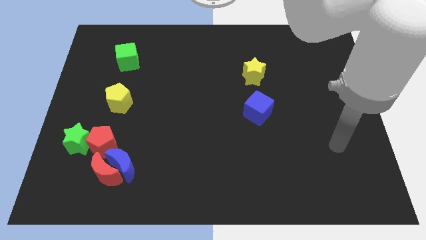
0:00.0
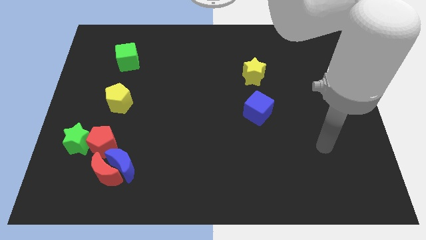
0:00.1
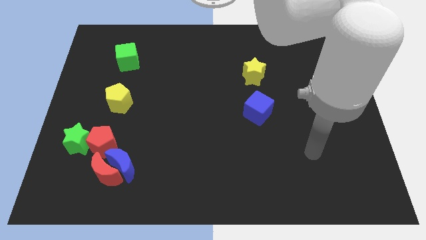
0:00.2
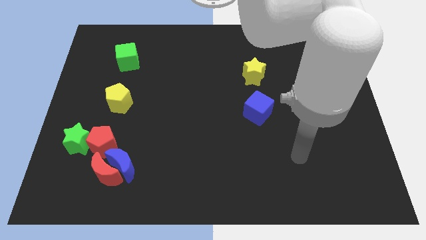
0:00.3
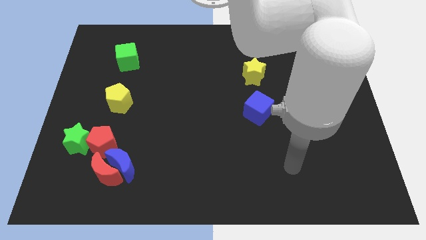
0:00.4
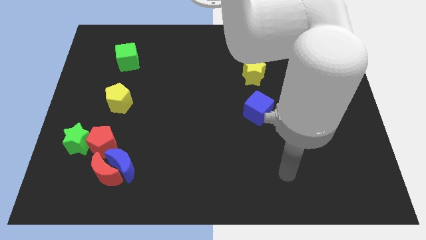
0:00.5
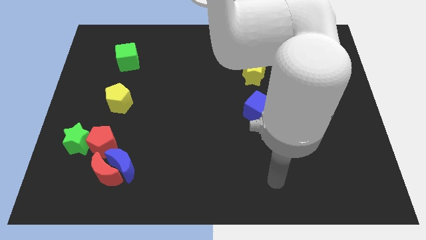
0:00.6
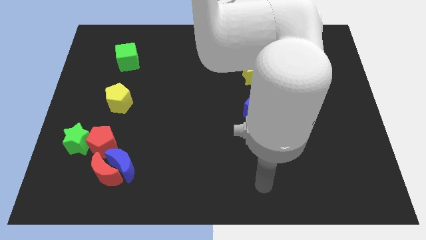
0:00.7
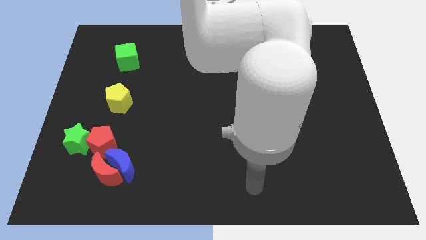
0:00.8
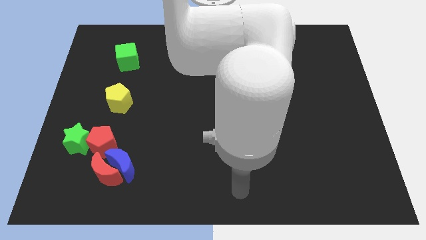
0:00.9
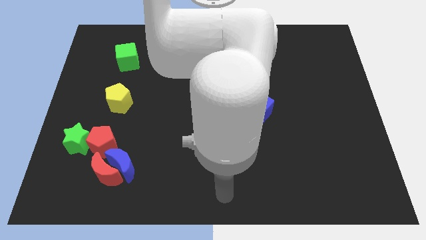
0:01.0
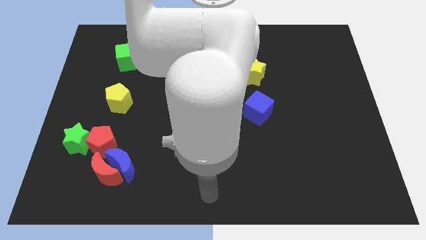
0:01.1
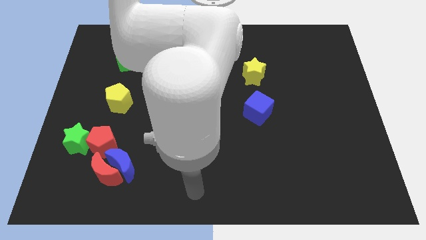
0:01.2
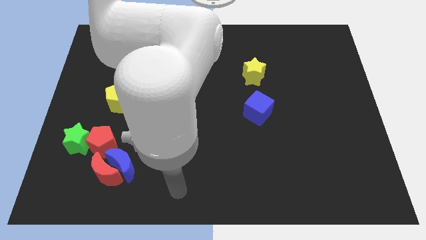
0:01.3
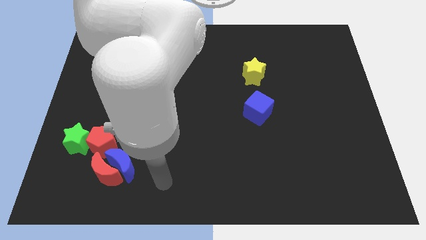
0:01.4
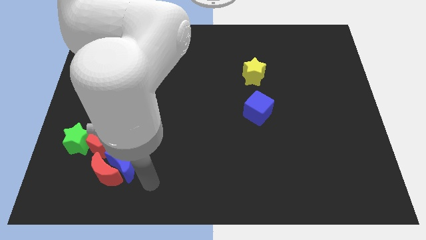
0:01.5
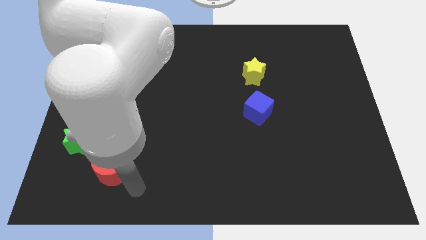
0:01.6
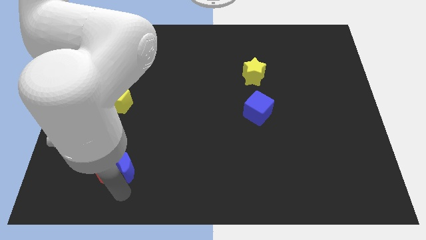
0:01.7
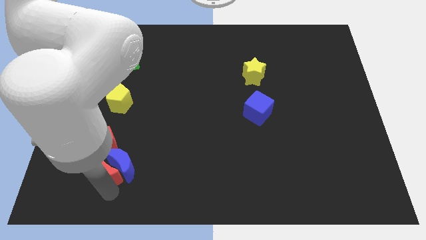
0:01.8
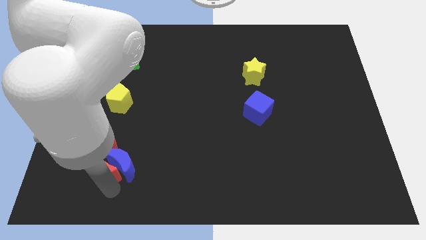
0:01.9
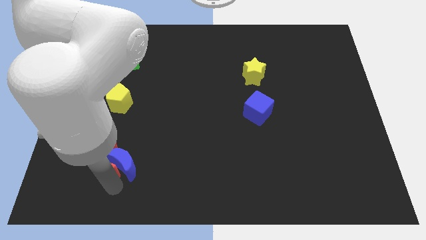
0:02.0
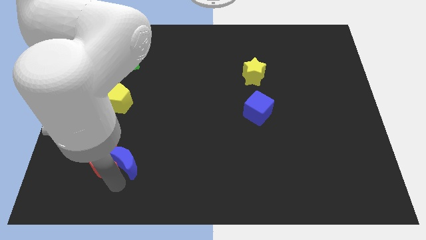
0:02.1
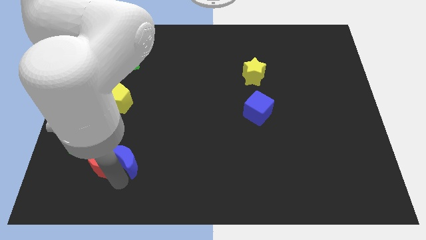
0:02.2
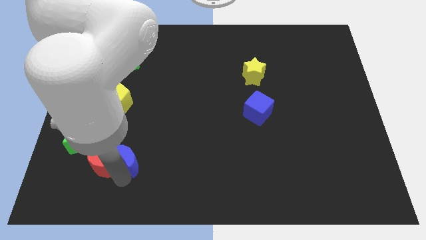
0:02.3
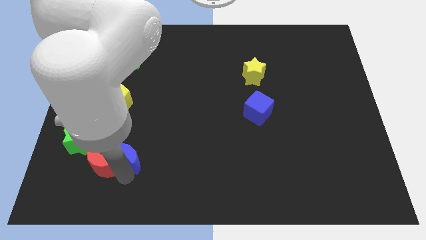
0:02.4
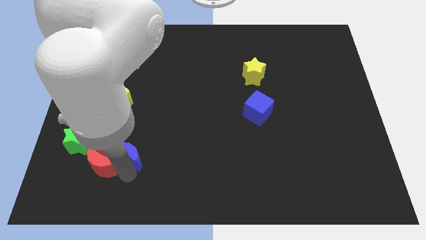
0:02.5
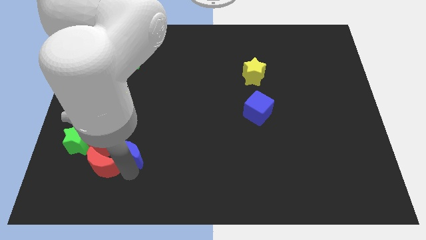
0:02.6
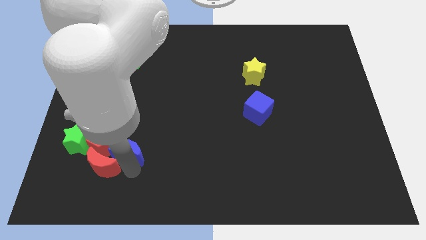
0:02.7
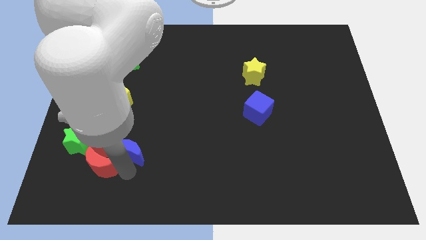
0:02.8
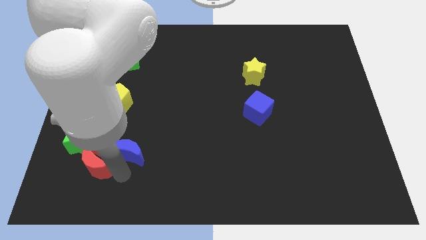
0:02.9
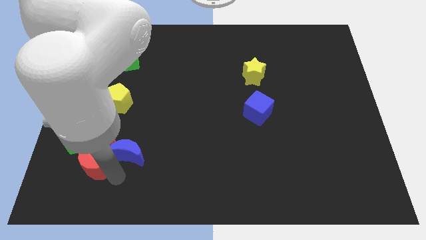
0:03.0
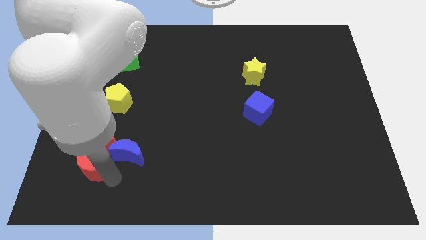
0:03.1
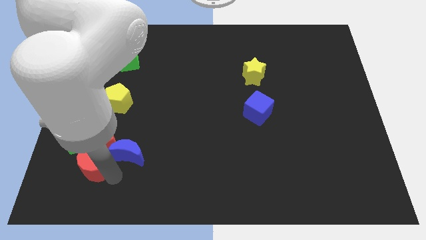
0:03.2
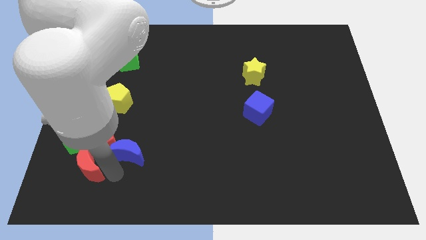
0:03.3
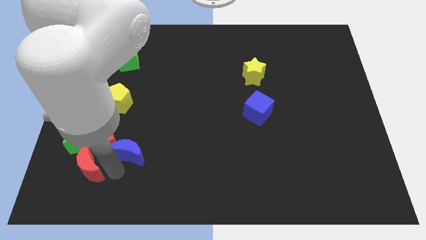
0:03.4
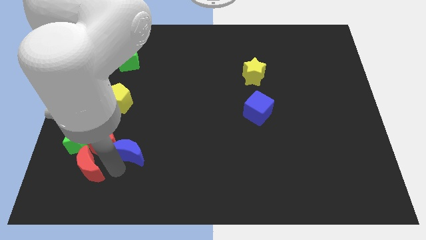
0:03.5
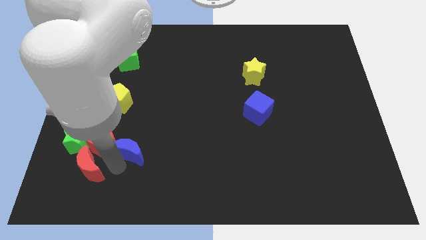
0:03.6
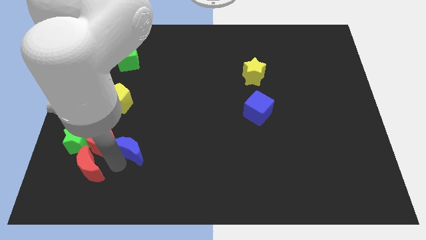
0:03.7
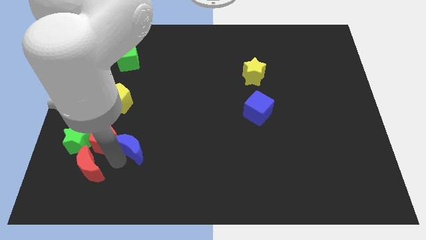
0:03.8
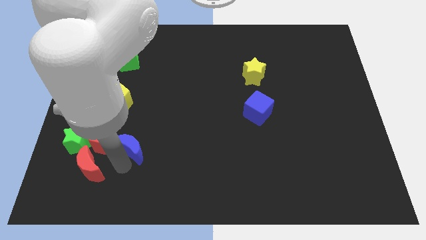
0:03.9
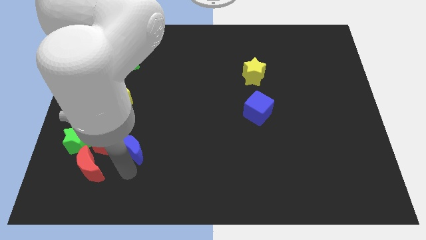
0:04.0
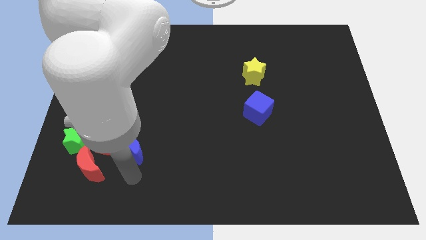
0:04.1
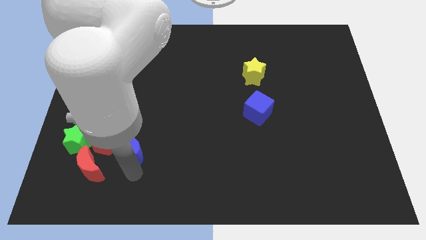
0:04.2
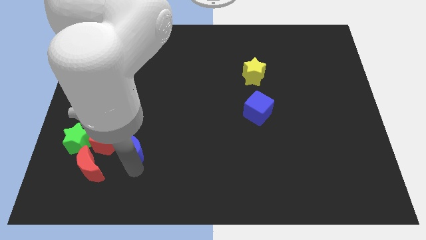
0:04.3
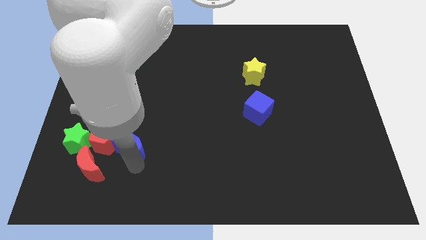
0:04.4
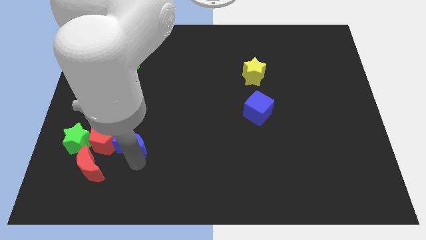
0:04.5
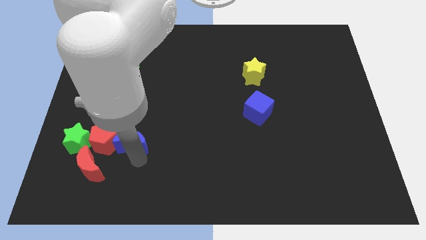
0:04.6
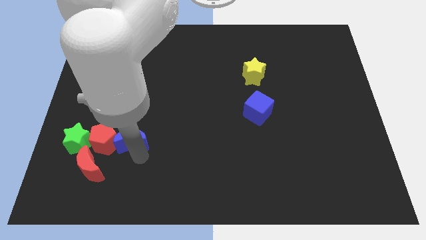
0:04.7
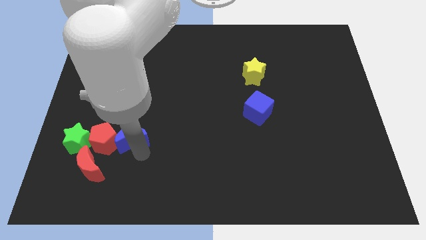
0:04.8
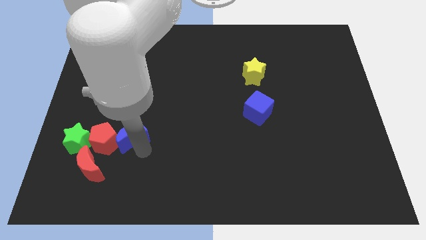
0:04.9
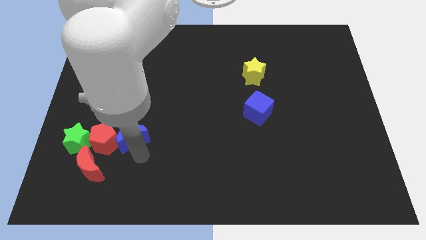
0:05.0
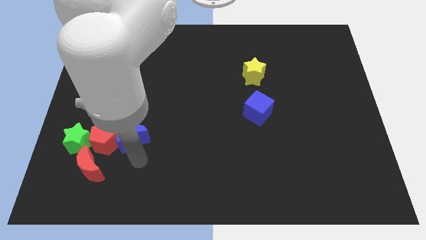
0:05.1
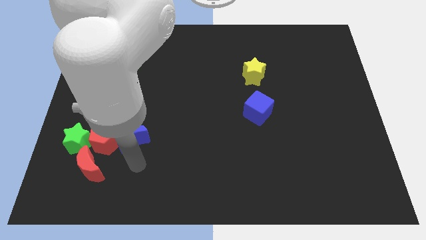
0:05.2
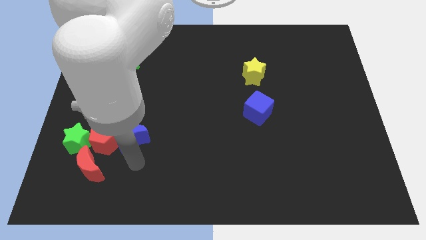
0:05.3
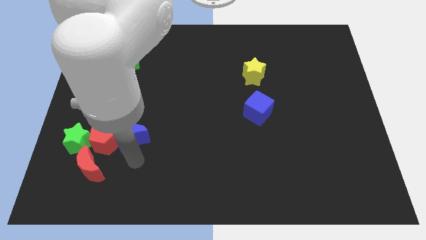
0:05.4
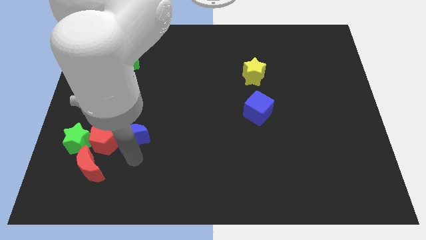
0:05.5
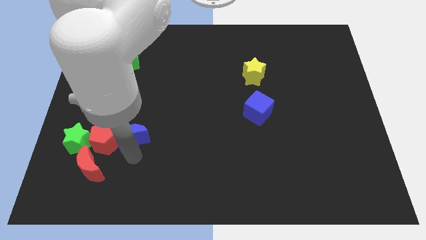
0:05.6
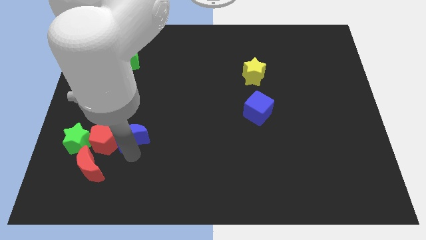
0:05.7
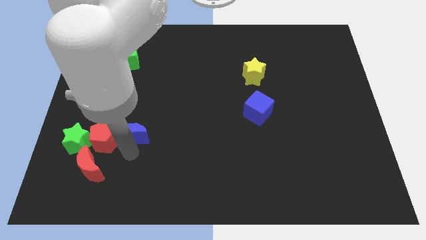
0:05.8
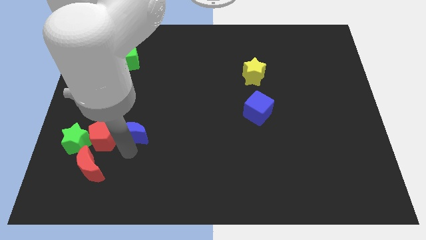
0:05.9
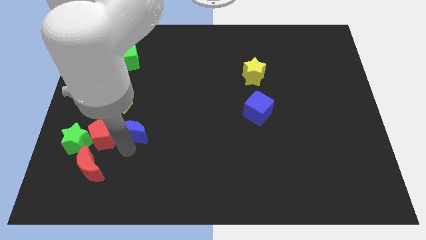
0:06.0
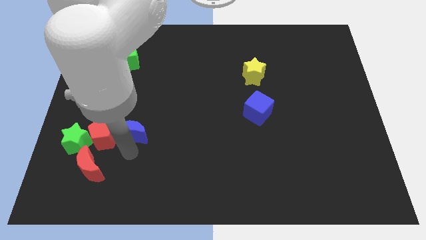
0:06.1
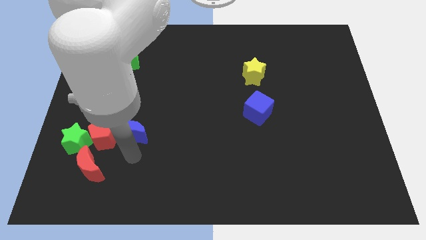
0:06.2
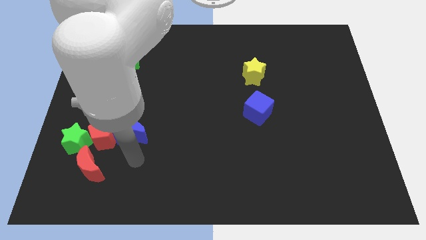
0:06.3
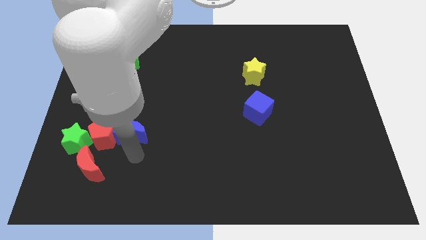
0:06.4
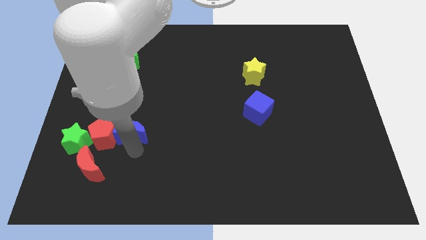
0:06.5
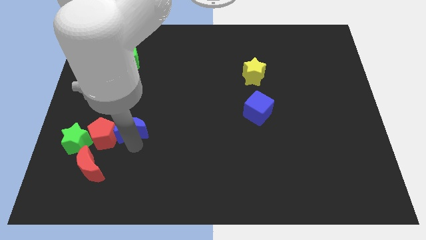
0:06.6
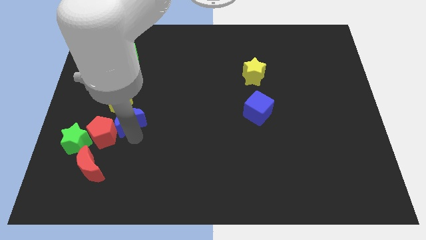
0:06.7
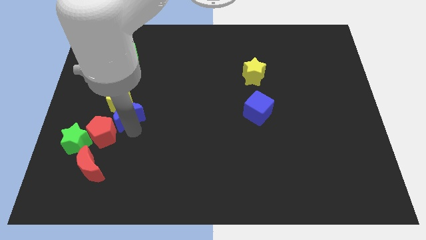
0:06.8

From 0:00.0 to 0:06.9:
slide the blue moon towards the yellow pentagon
